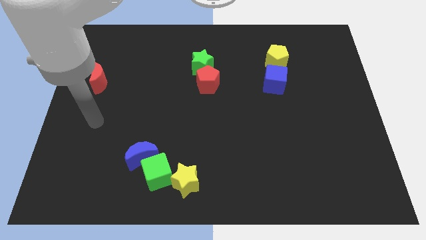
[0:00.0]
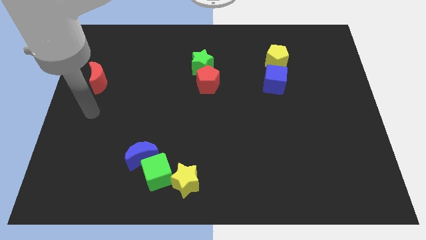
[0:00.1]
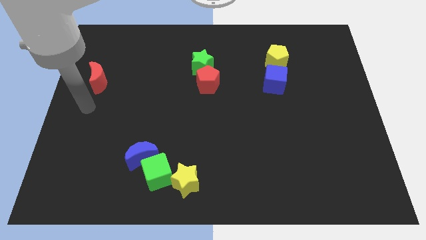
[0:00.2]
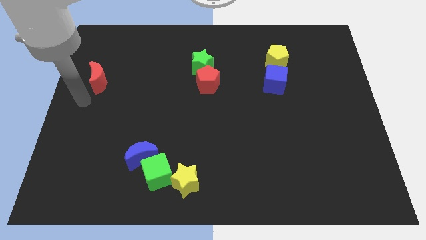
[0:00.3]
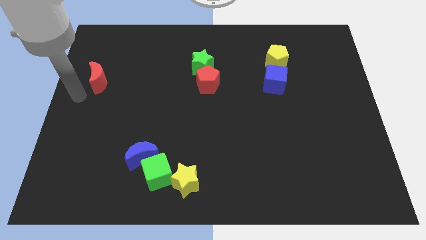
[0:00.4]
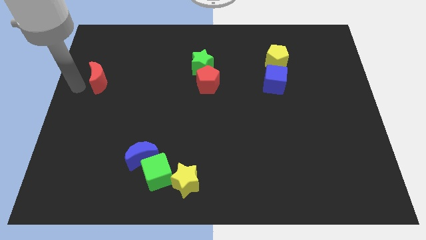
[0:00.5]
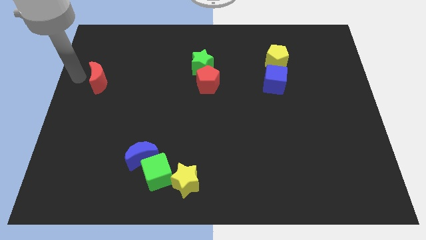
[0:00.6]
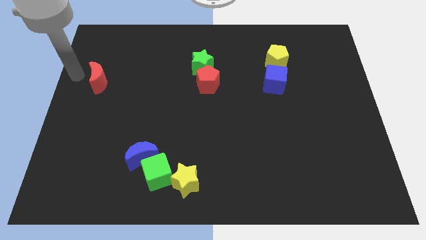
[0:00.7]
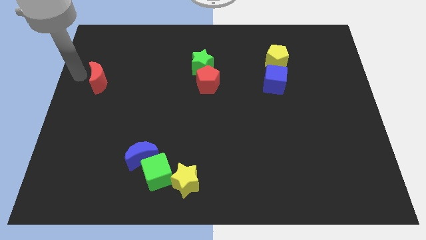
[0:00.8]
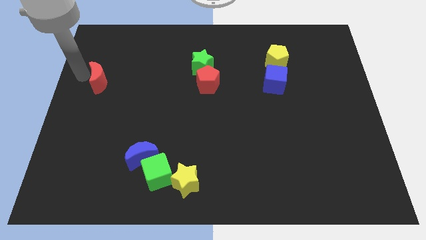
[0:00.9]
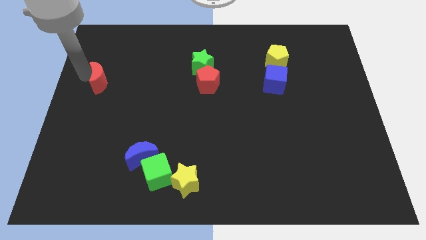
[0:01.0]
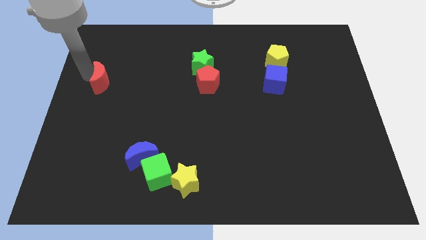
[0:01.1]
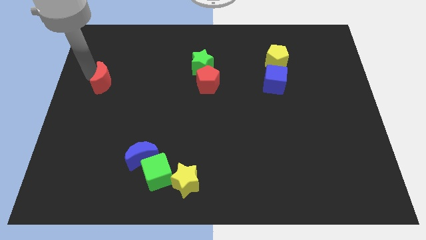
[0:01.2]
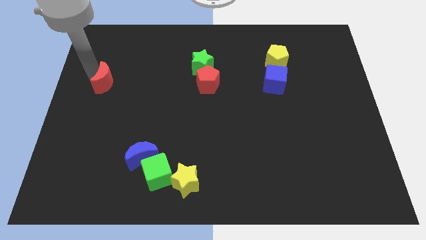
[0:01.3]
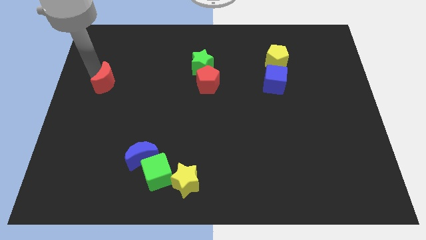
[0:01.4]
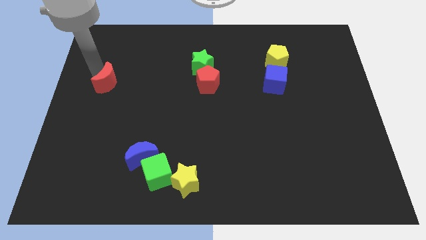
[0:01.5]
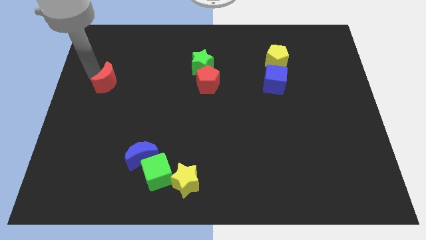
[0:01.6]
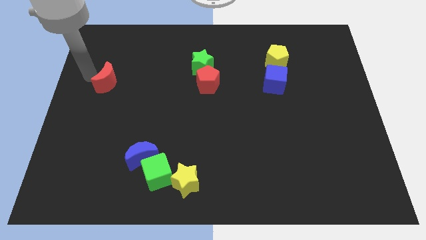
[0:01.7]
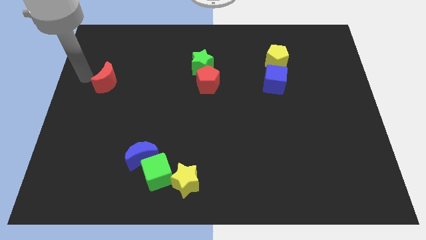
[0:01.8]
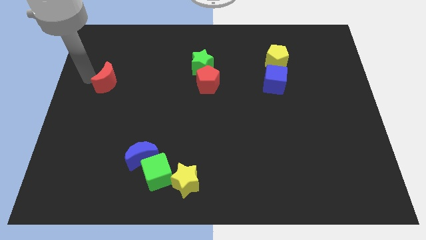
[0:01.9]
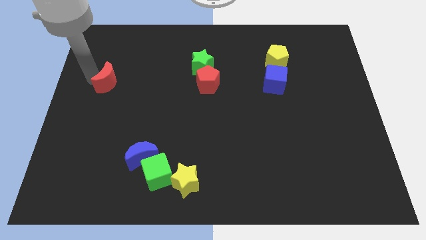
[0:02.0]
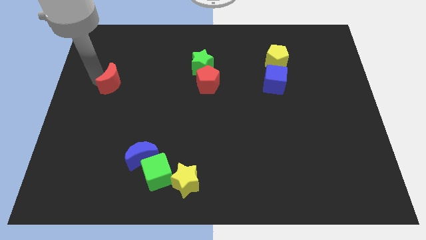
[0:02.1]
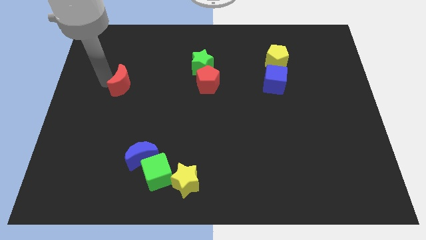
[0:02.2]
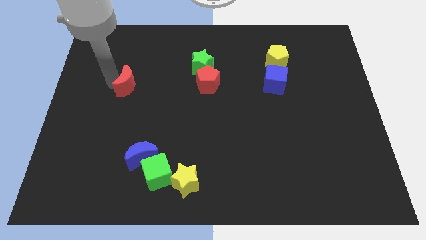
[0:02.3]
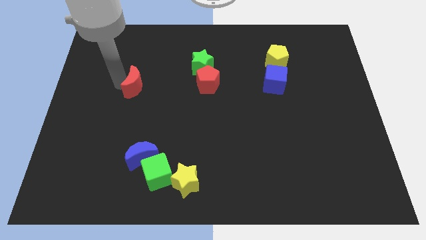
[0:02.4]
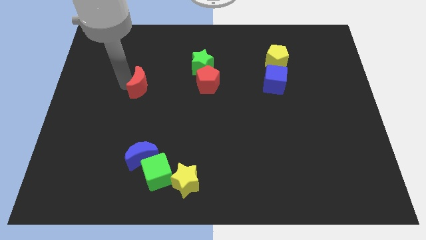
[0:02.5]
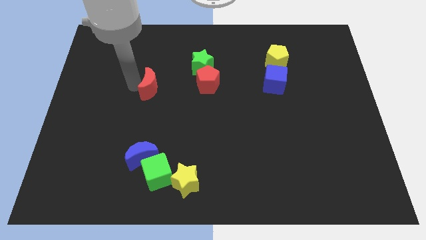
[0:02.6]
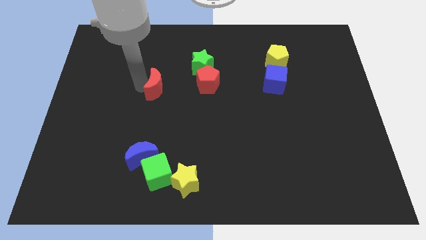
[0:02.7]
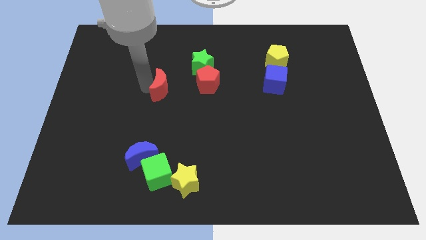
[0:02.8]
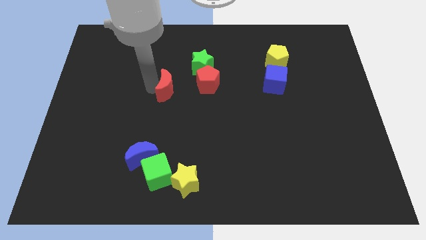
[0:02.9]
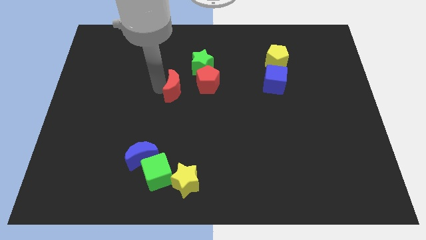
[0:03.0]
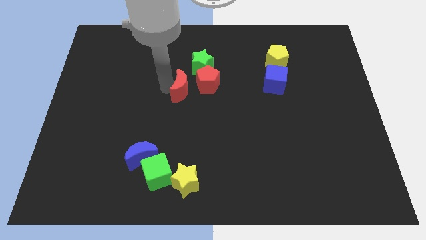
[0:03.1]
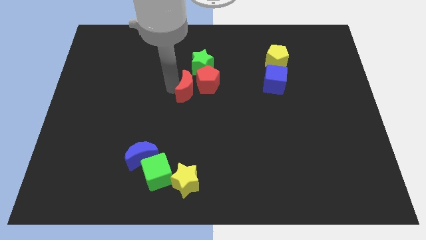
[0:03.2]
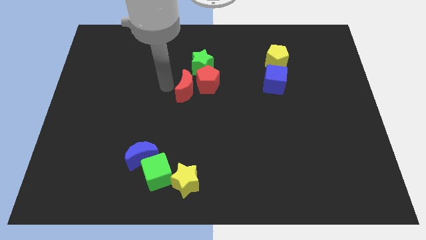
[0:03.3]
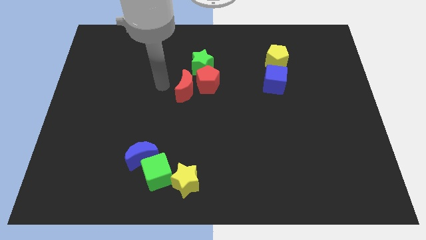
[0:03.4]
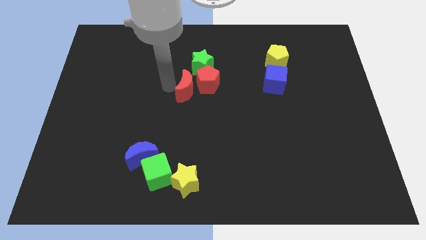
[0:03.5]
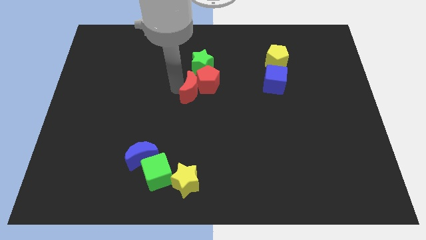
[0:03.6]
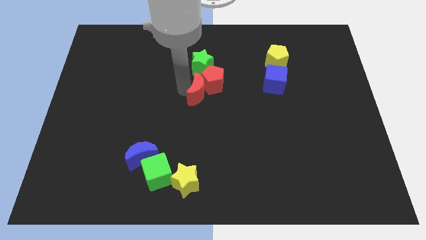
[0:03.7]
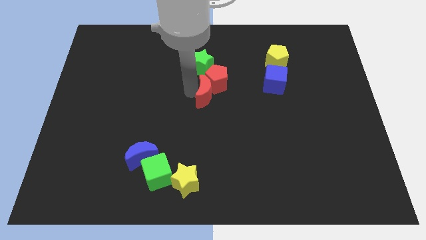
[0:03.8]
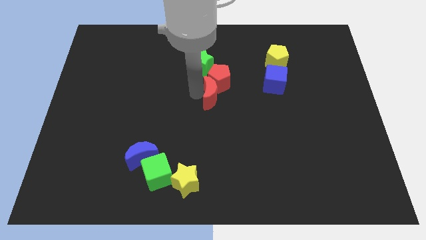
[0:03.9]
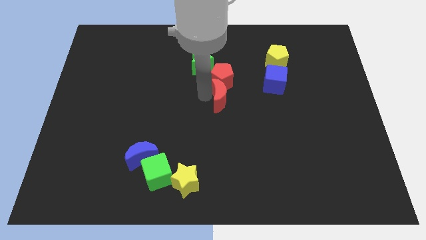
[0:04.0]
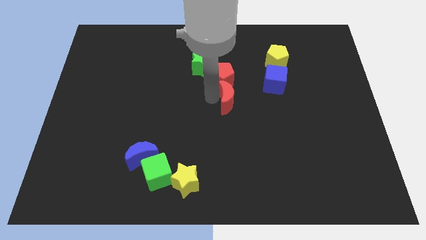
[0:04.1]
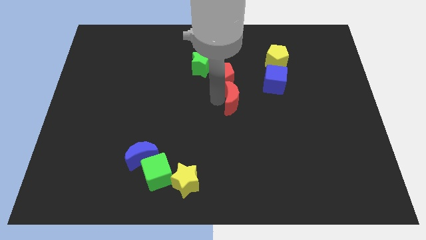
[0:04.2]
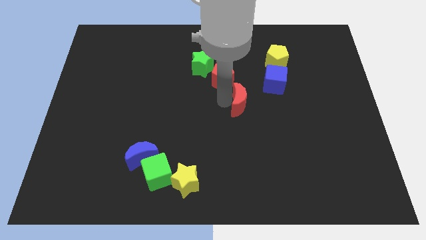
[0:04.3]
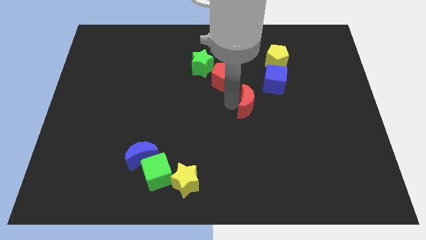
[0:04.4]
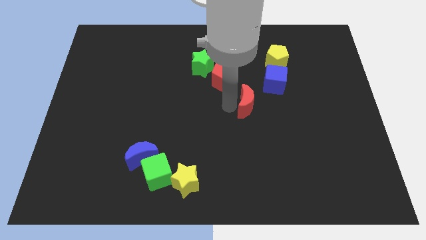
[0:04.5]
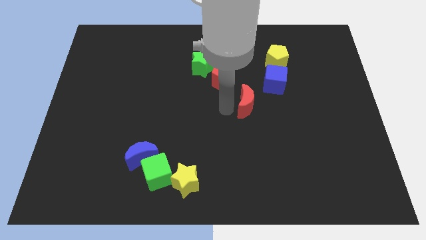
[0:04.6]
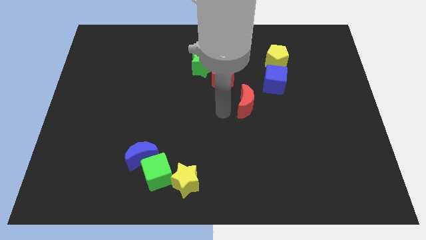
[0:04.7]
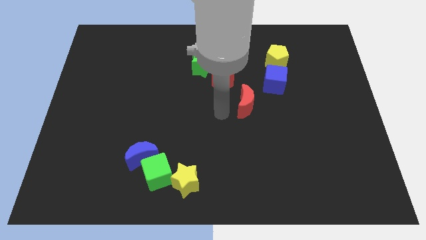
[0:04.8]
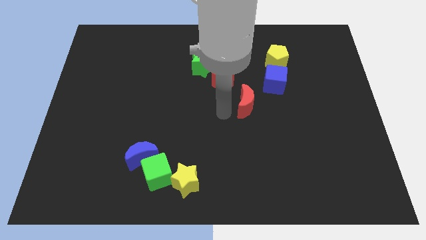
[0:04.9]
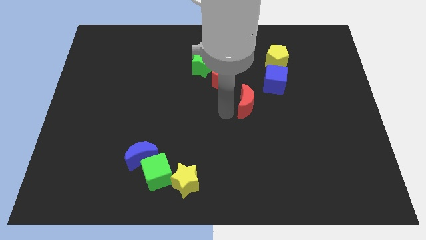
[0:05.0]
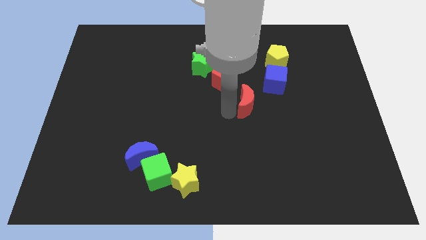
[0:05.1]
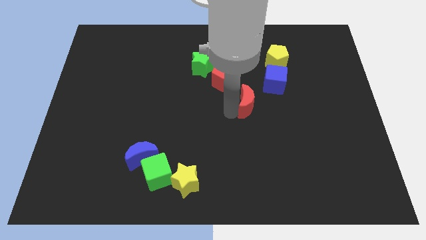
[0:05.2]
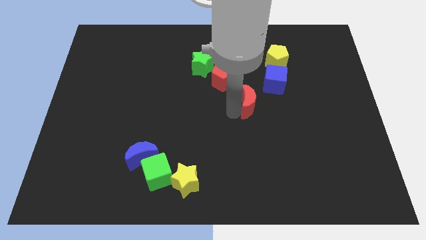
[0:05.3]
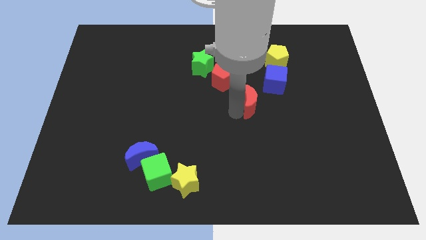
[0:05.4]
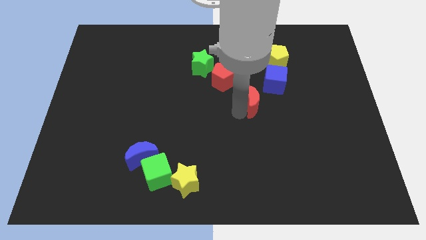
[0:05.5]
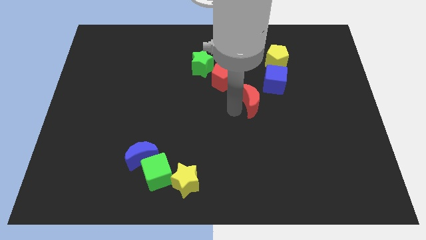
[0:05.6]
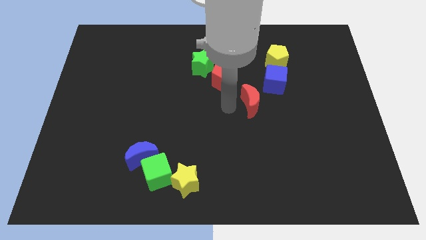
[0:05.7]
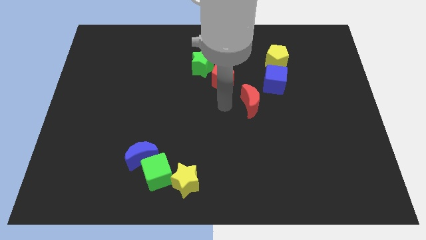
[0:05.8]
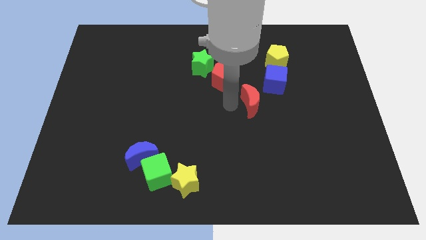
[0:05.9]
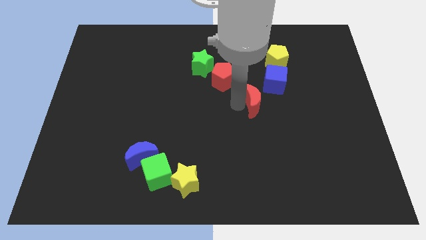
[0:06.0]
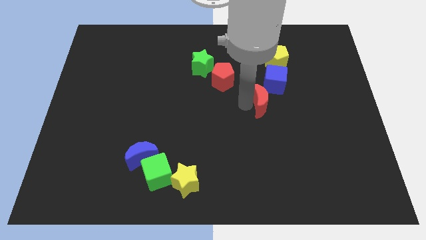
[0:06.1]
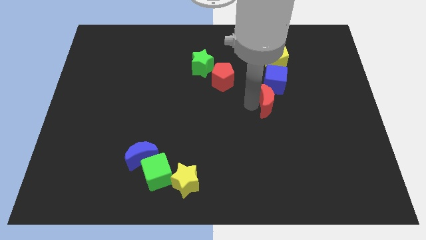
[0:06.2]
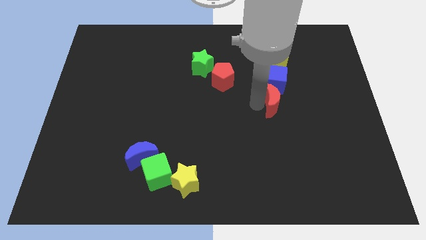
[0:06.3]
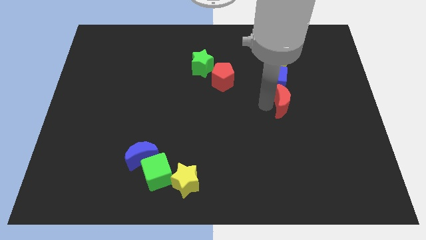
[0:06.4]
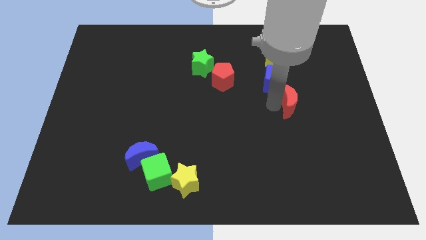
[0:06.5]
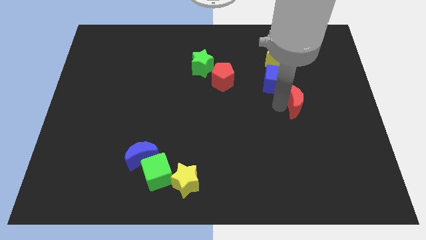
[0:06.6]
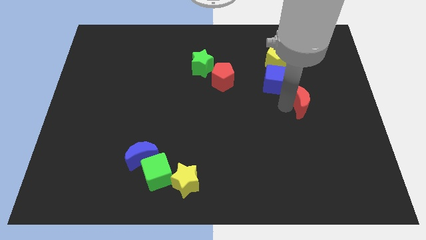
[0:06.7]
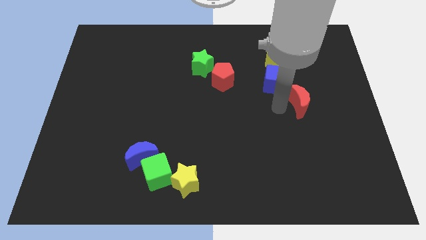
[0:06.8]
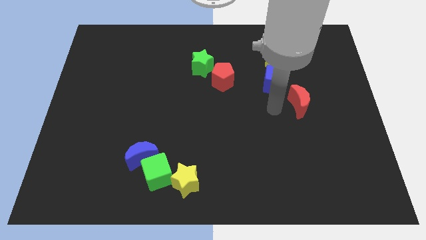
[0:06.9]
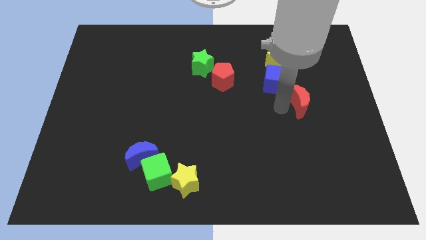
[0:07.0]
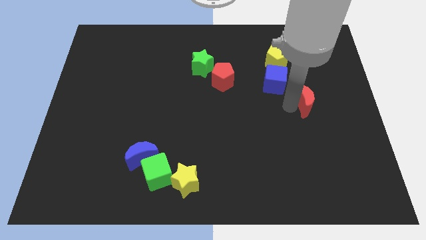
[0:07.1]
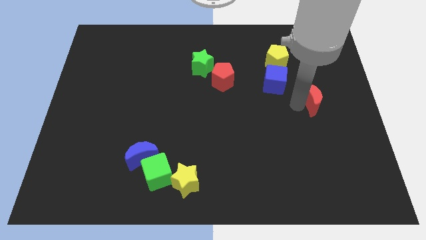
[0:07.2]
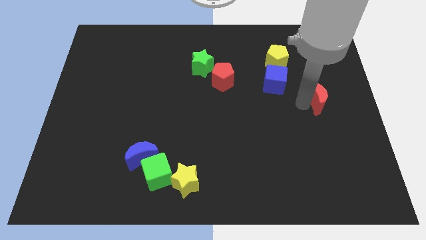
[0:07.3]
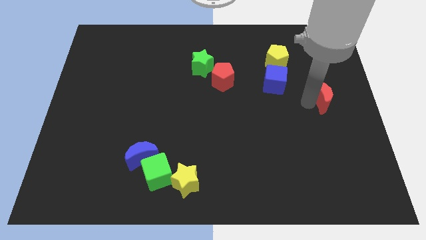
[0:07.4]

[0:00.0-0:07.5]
put the red moon to the right side
